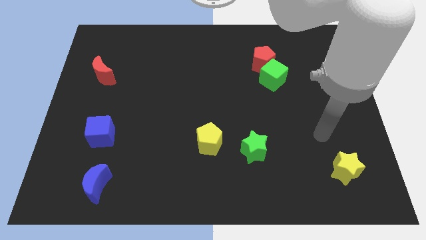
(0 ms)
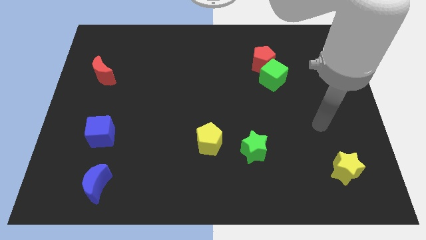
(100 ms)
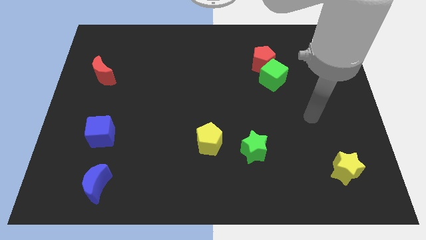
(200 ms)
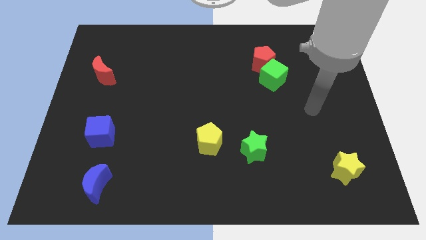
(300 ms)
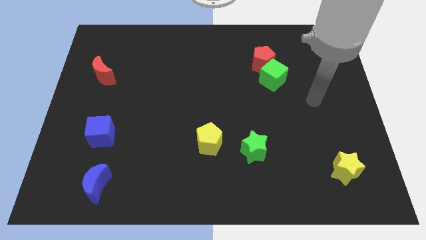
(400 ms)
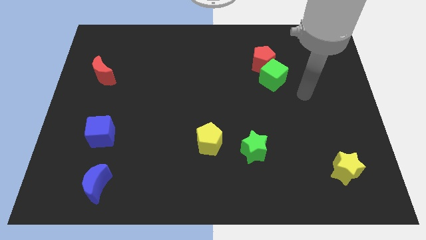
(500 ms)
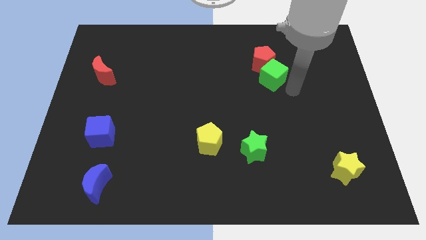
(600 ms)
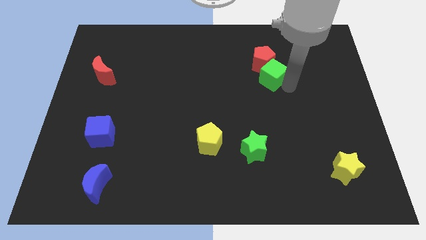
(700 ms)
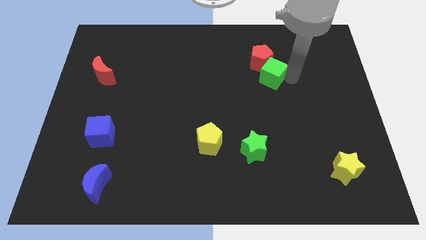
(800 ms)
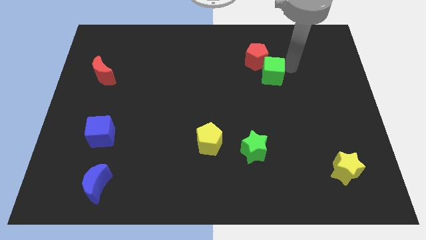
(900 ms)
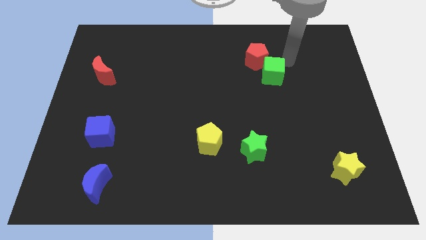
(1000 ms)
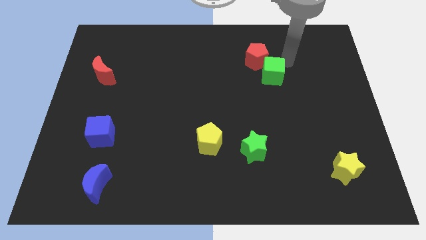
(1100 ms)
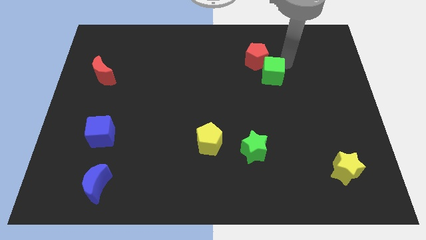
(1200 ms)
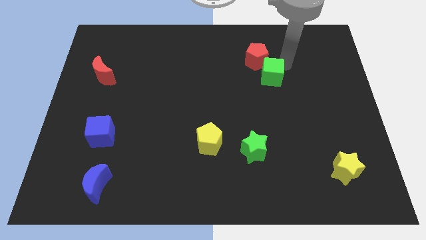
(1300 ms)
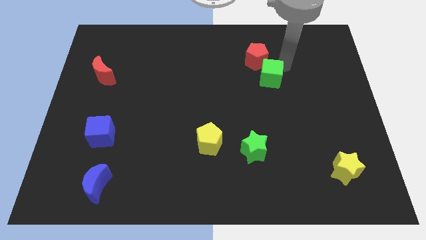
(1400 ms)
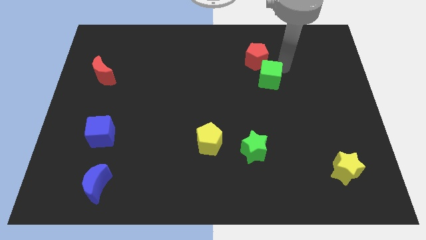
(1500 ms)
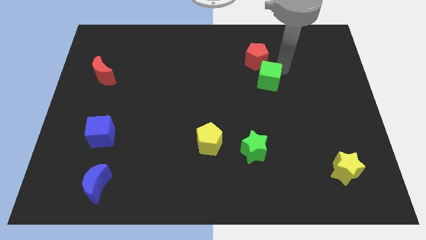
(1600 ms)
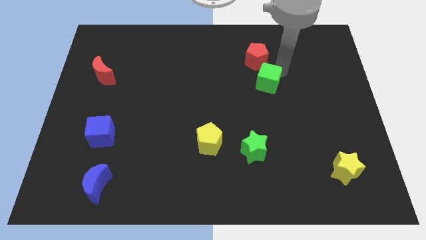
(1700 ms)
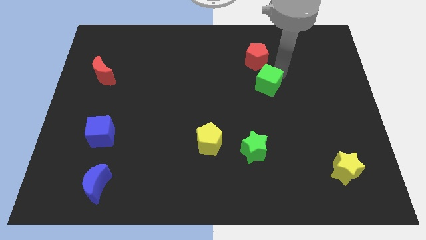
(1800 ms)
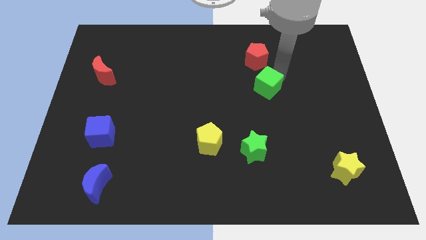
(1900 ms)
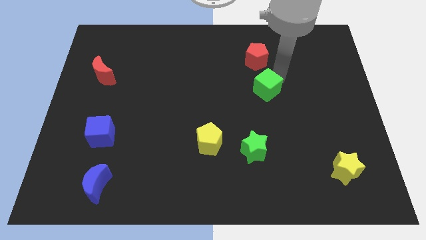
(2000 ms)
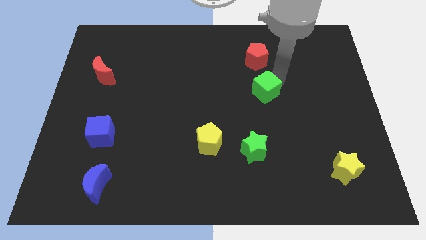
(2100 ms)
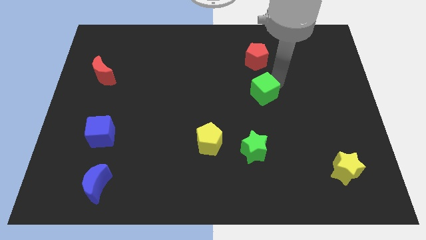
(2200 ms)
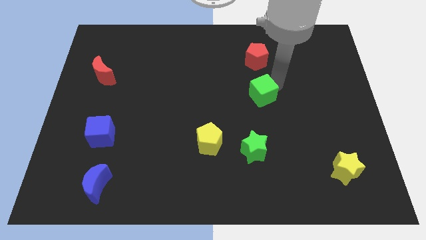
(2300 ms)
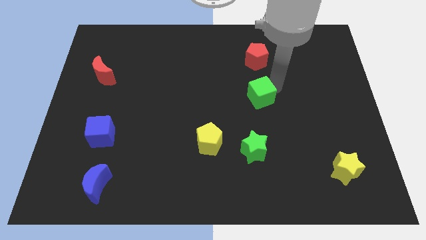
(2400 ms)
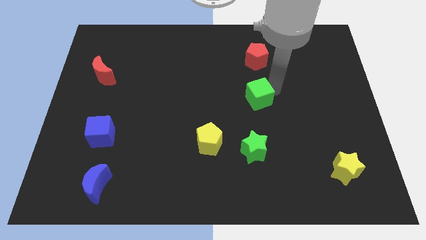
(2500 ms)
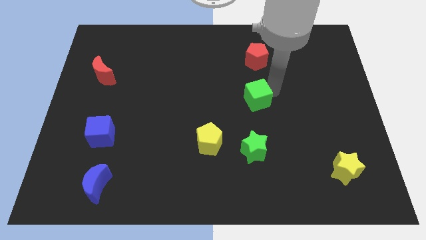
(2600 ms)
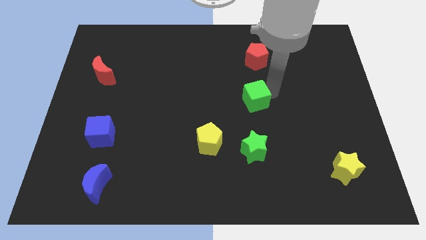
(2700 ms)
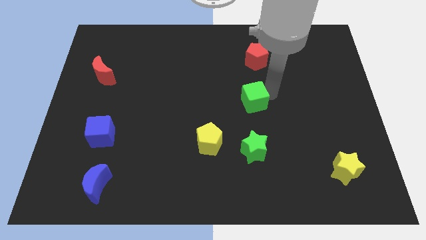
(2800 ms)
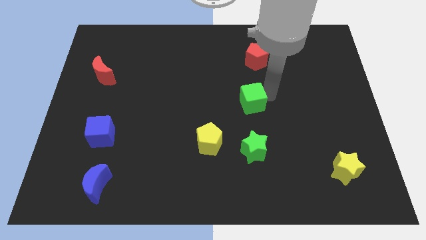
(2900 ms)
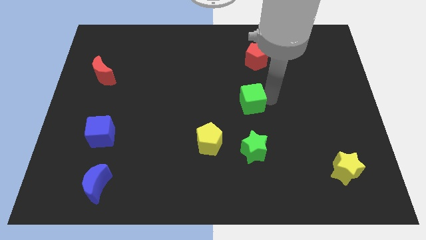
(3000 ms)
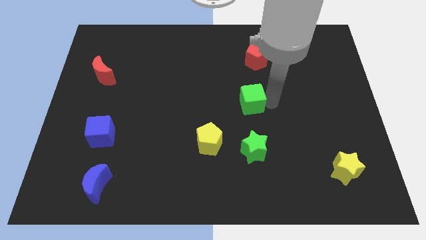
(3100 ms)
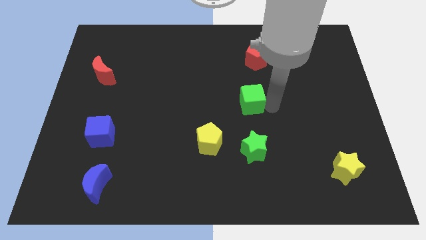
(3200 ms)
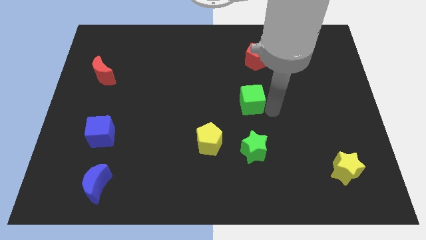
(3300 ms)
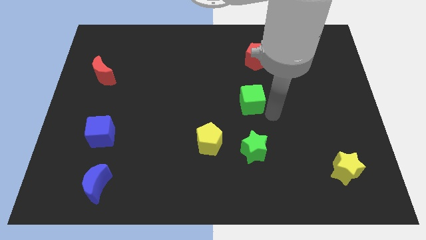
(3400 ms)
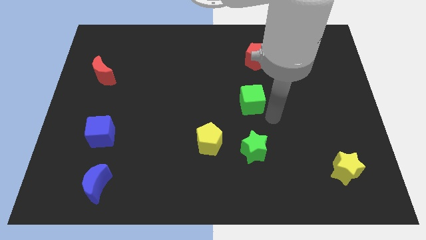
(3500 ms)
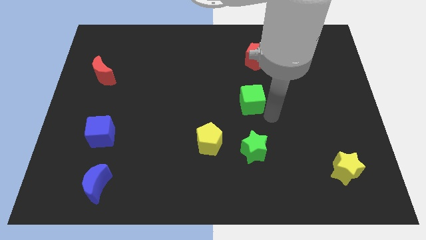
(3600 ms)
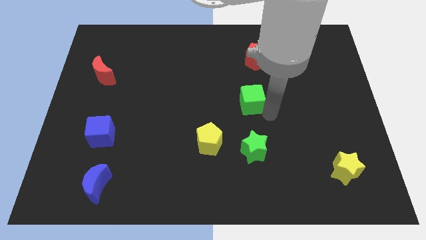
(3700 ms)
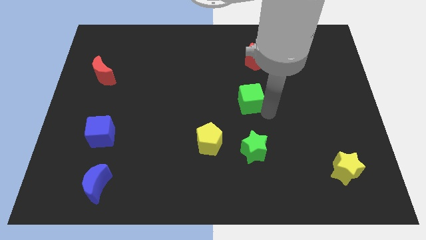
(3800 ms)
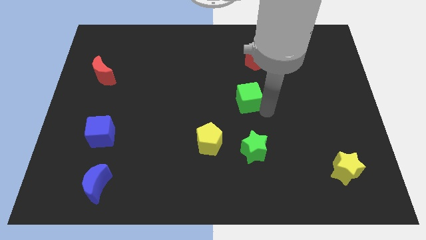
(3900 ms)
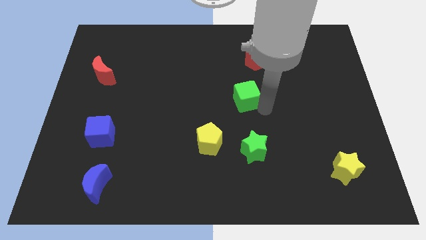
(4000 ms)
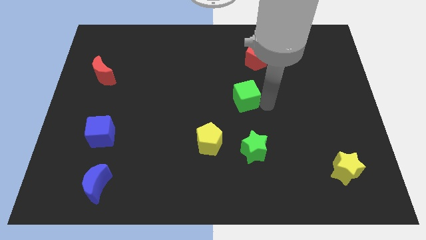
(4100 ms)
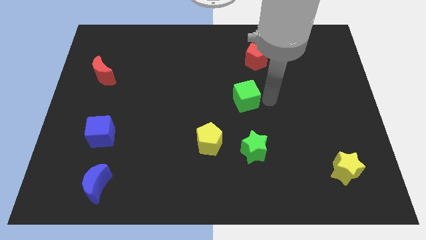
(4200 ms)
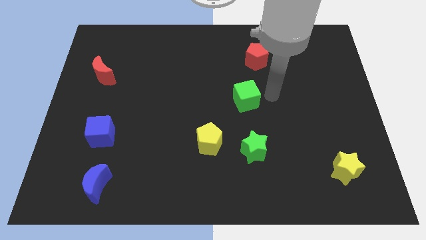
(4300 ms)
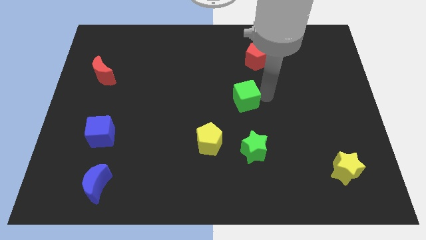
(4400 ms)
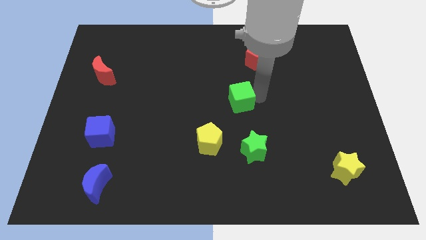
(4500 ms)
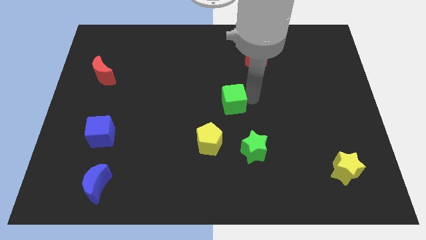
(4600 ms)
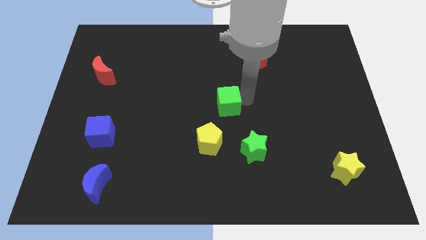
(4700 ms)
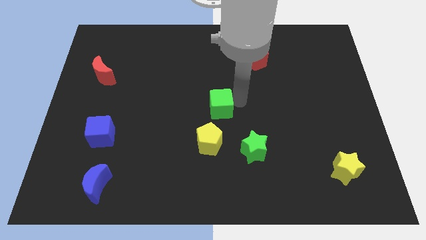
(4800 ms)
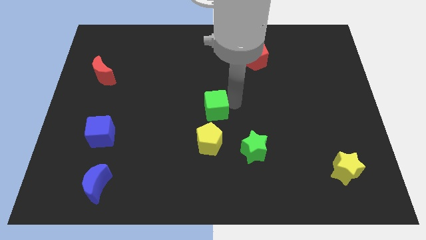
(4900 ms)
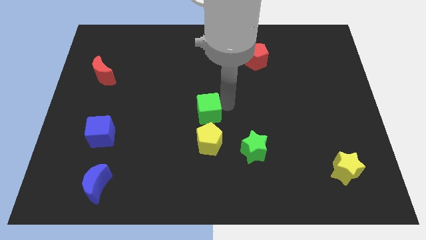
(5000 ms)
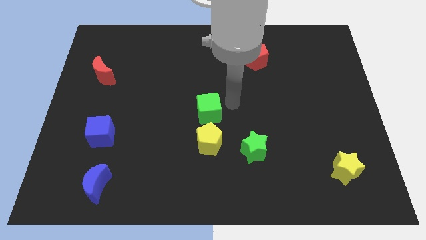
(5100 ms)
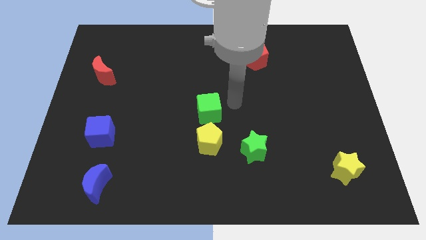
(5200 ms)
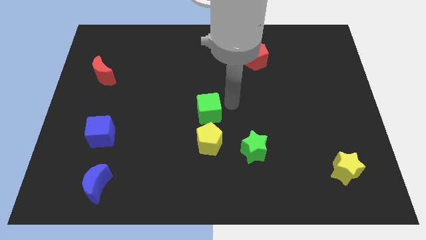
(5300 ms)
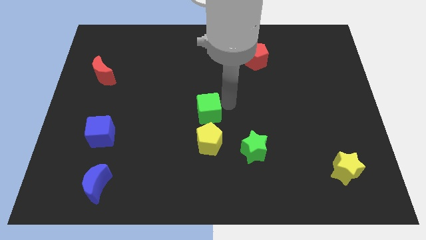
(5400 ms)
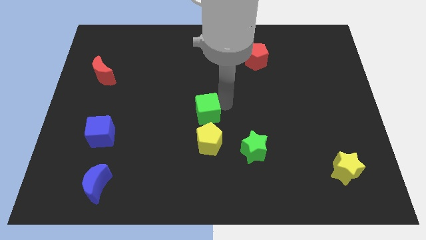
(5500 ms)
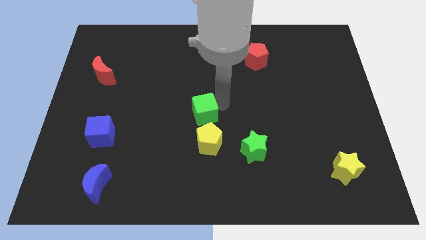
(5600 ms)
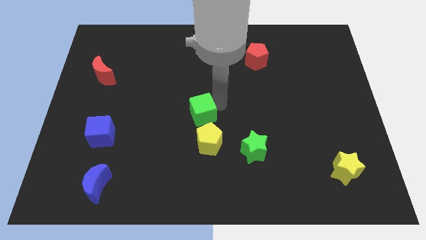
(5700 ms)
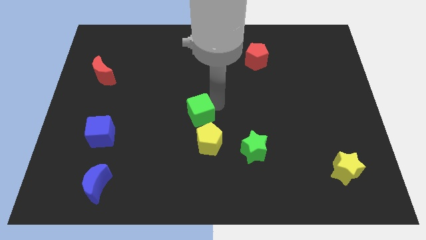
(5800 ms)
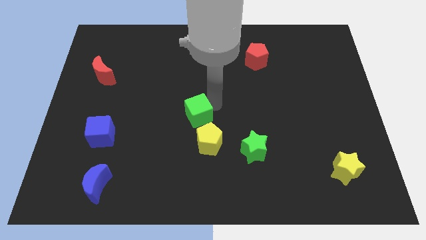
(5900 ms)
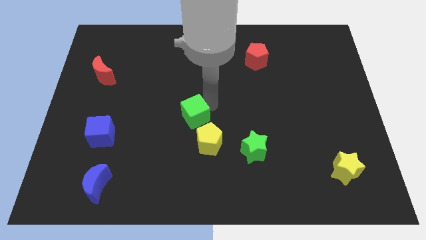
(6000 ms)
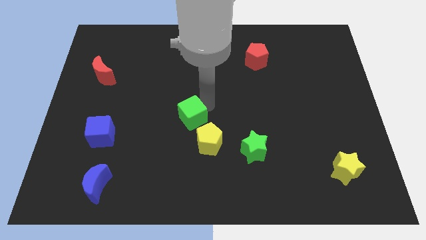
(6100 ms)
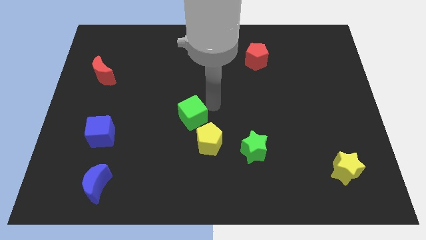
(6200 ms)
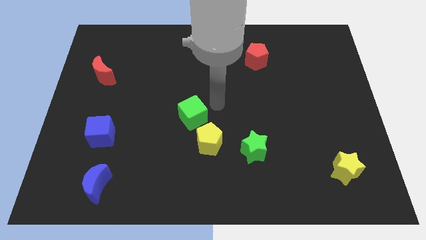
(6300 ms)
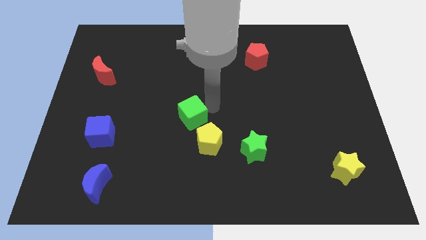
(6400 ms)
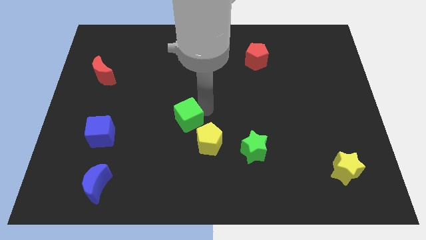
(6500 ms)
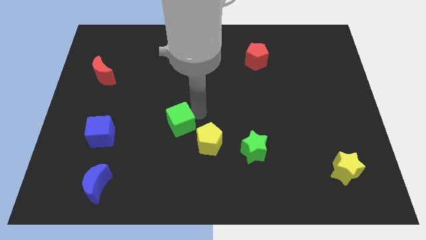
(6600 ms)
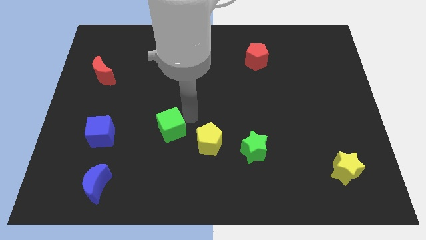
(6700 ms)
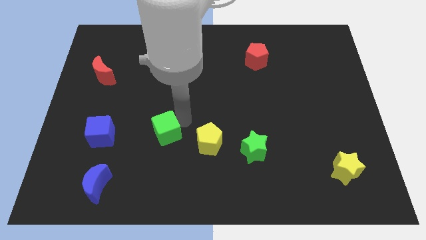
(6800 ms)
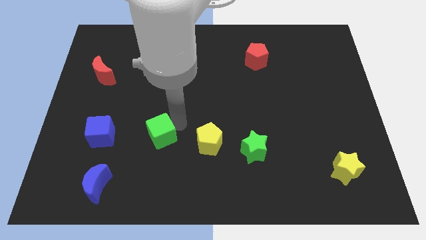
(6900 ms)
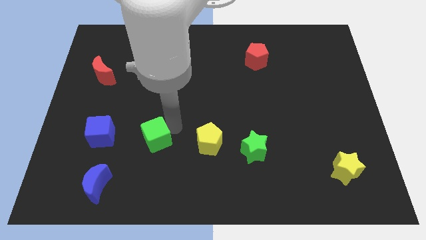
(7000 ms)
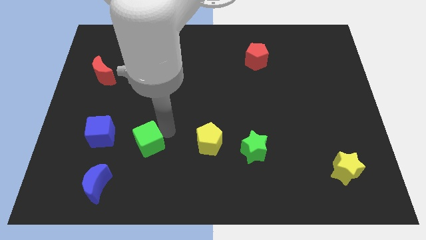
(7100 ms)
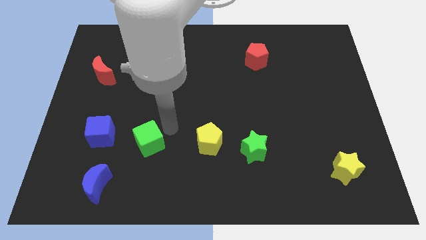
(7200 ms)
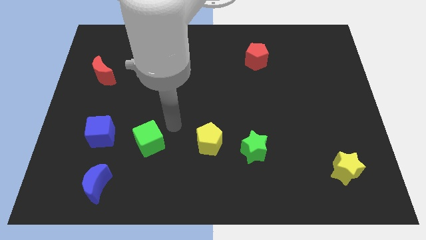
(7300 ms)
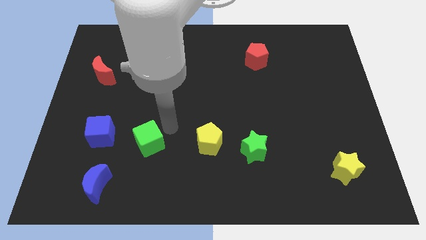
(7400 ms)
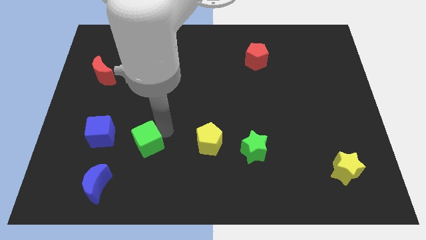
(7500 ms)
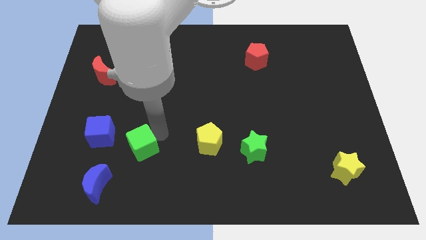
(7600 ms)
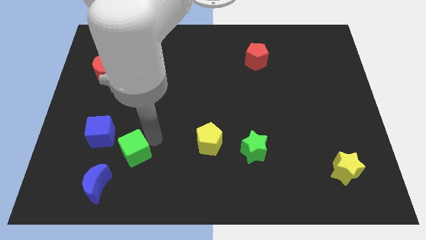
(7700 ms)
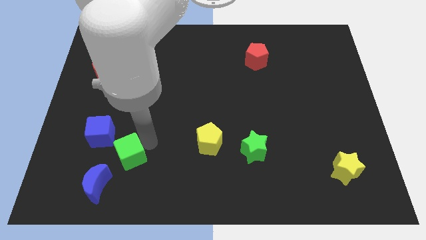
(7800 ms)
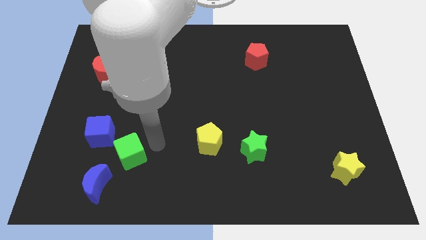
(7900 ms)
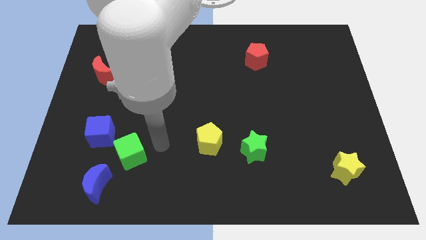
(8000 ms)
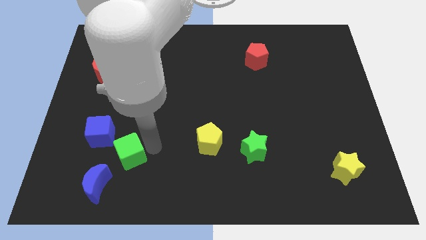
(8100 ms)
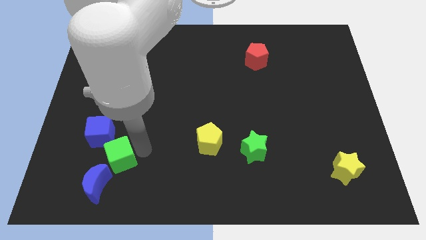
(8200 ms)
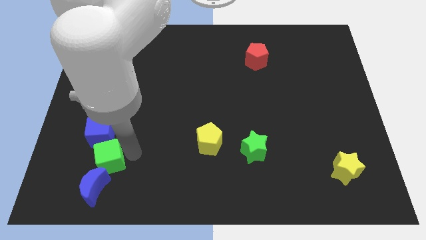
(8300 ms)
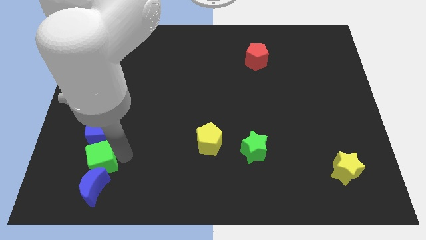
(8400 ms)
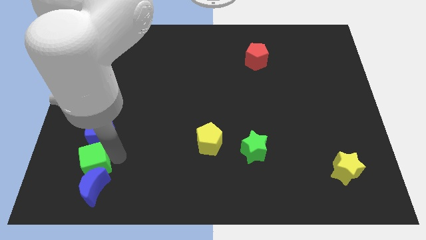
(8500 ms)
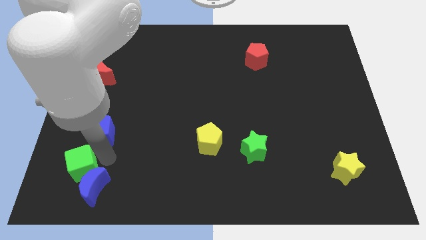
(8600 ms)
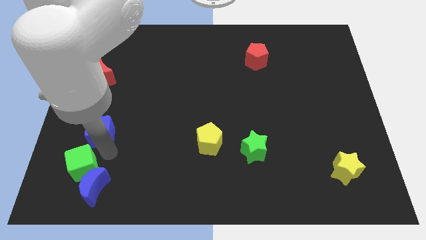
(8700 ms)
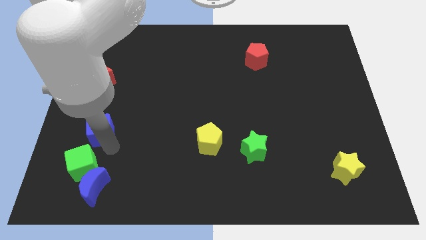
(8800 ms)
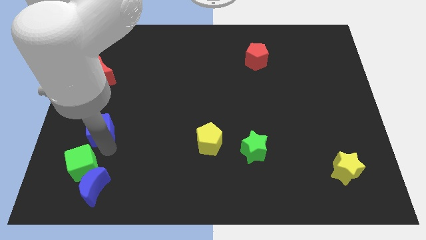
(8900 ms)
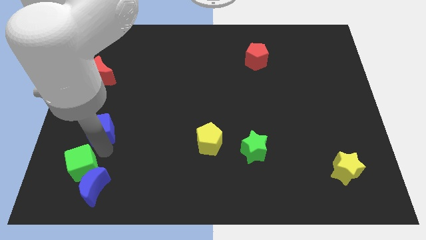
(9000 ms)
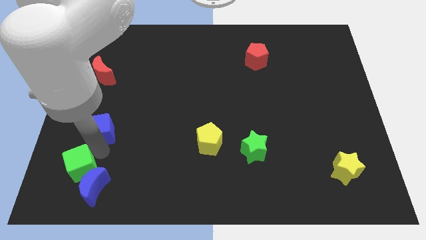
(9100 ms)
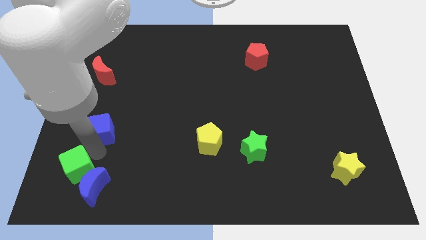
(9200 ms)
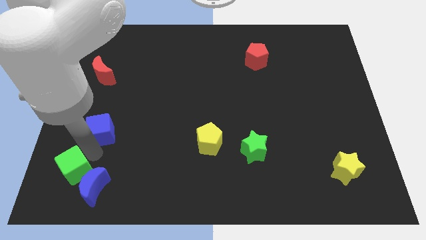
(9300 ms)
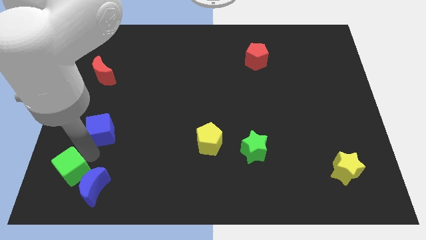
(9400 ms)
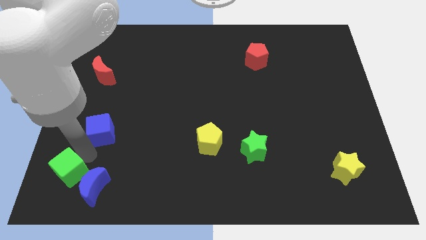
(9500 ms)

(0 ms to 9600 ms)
move the green cube to the lower left corner
